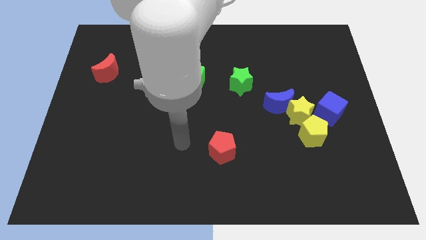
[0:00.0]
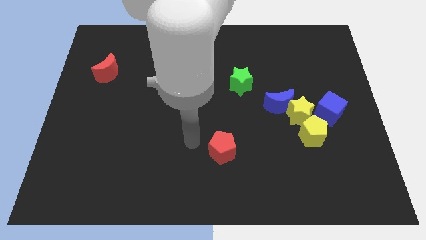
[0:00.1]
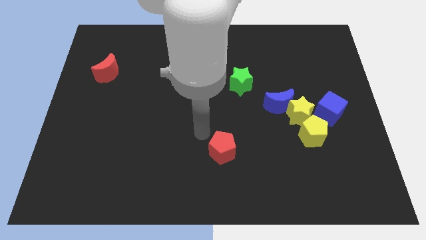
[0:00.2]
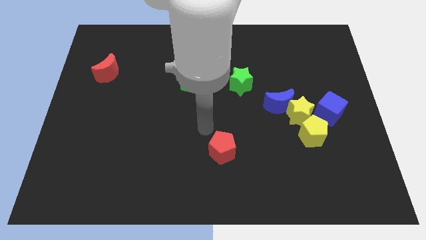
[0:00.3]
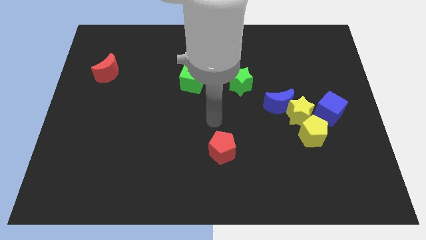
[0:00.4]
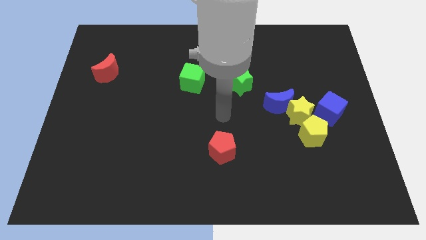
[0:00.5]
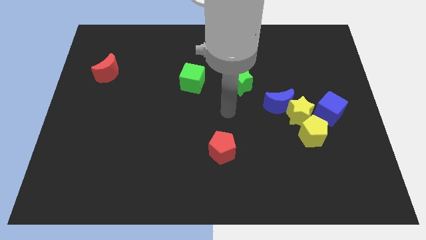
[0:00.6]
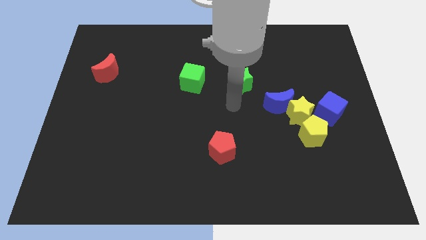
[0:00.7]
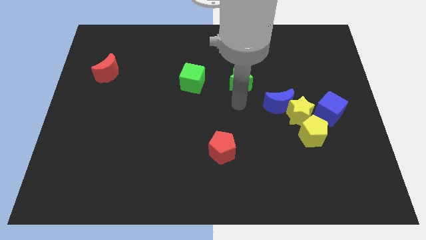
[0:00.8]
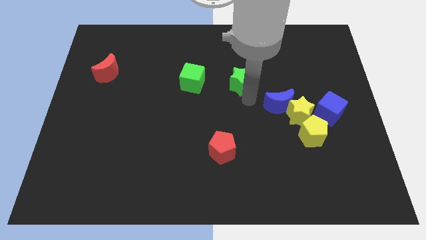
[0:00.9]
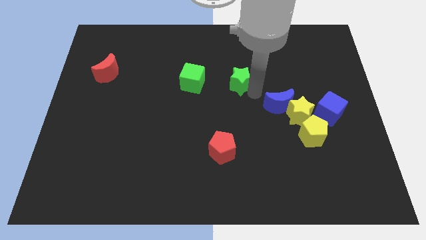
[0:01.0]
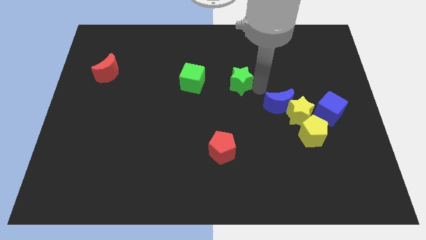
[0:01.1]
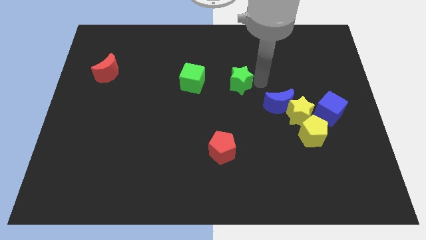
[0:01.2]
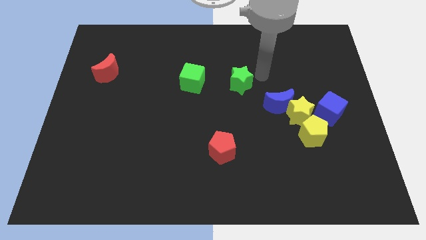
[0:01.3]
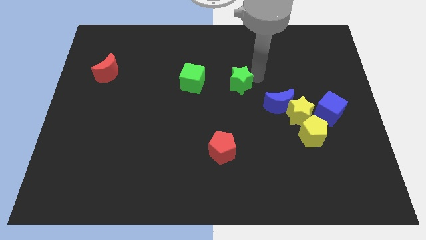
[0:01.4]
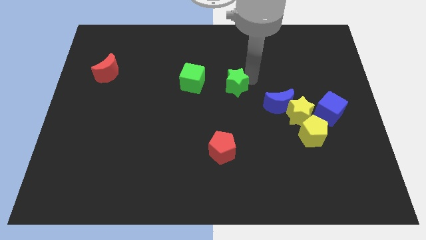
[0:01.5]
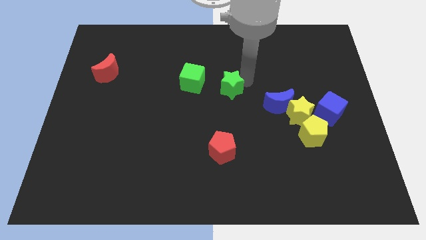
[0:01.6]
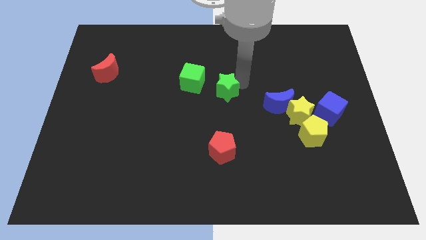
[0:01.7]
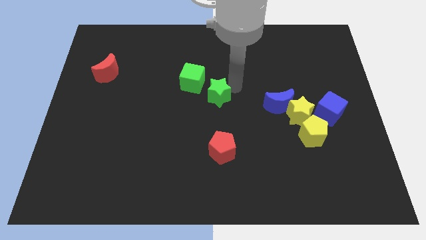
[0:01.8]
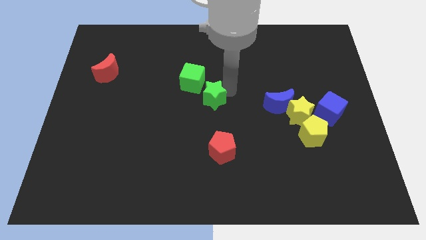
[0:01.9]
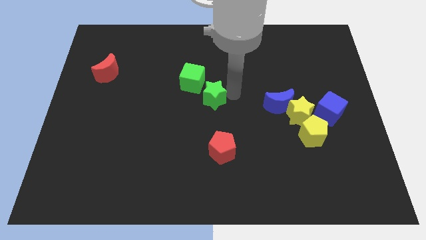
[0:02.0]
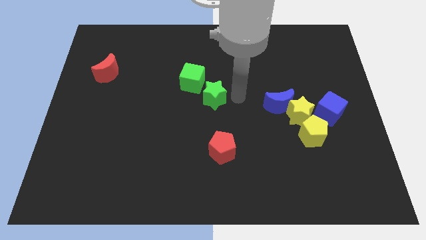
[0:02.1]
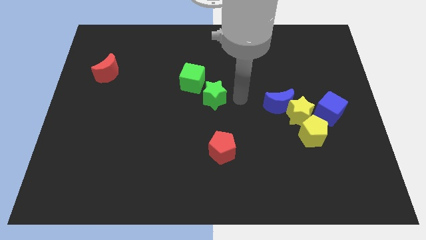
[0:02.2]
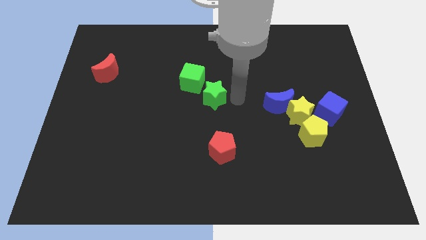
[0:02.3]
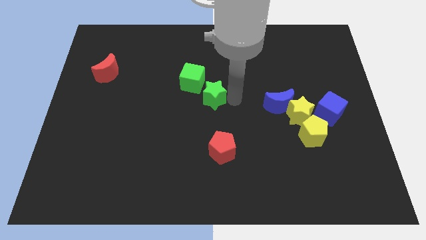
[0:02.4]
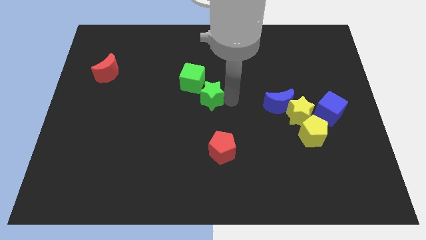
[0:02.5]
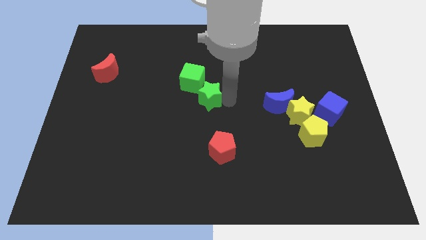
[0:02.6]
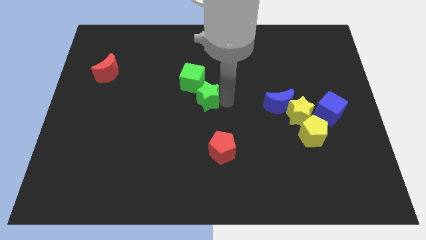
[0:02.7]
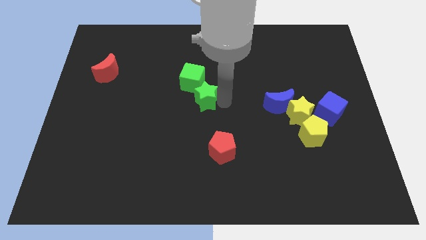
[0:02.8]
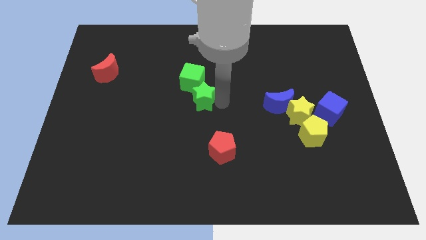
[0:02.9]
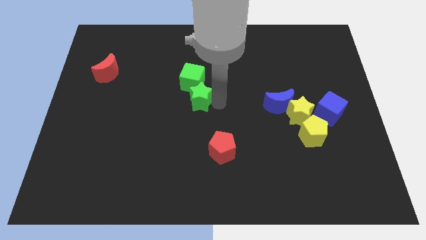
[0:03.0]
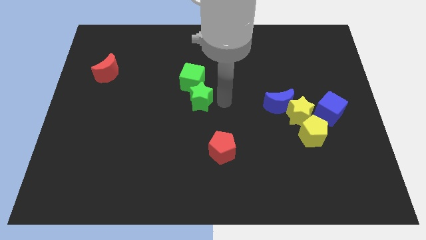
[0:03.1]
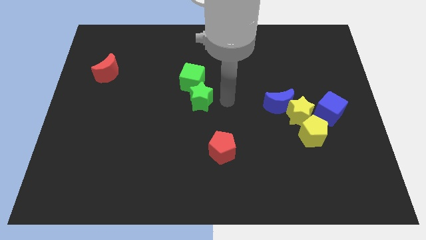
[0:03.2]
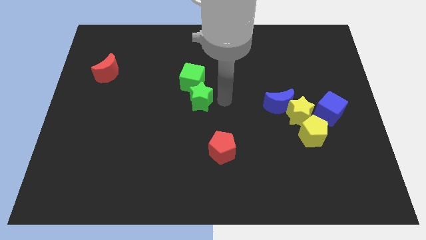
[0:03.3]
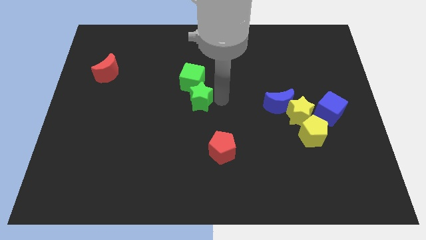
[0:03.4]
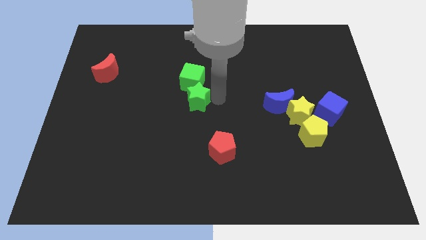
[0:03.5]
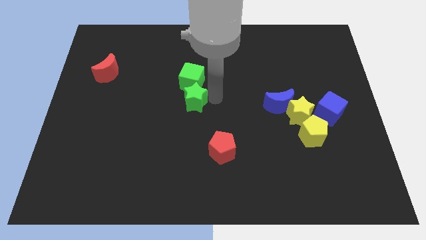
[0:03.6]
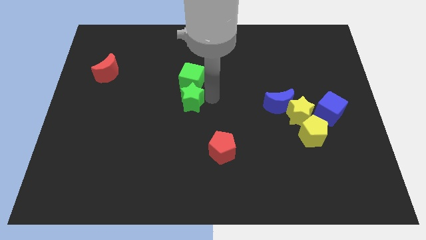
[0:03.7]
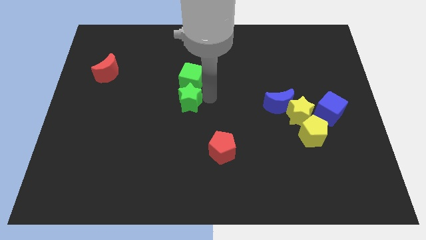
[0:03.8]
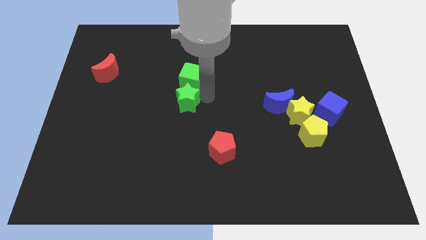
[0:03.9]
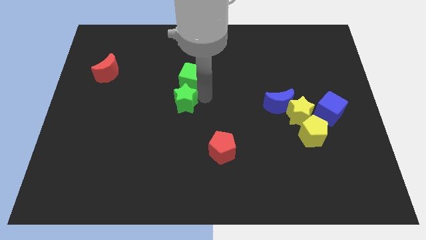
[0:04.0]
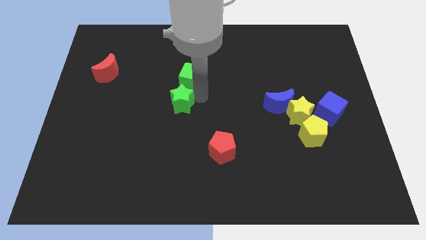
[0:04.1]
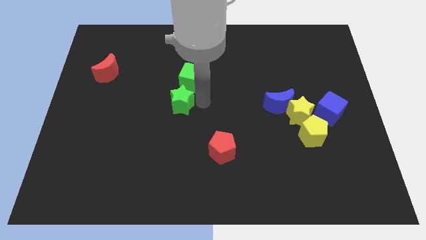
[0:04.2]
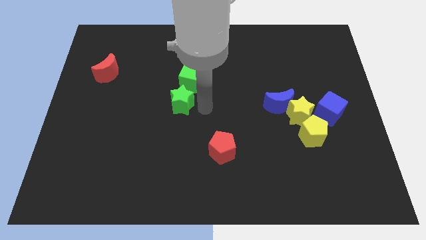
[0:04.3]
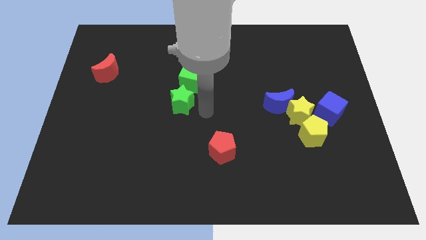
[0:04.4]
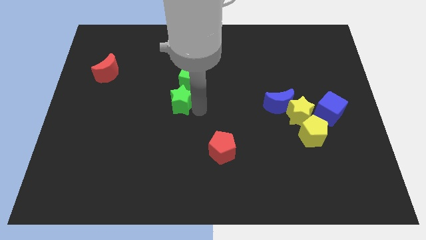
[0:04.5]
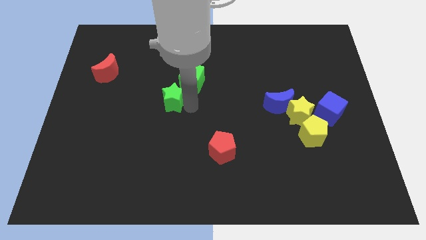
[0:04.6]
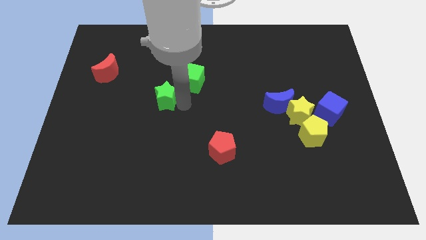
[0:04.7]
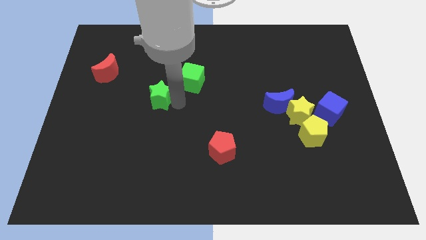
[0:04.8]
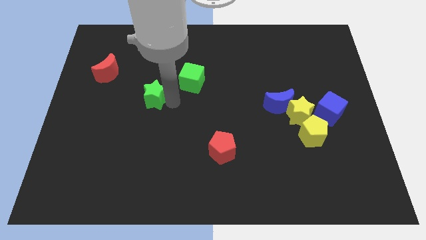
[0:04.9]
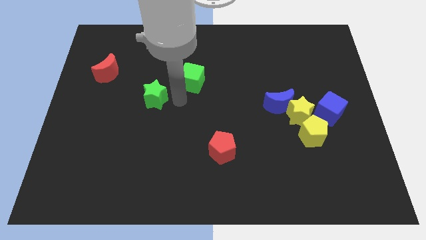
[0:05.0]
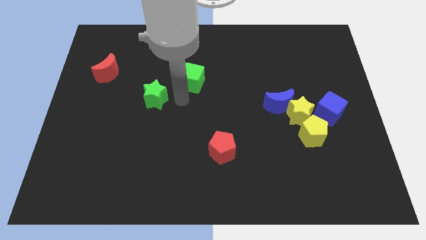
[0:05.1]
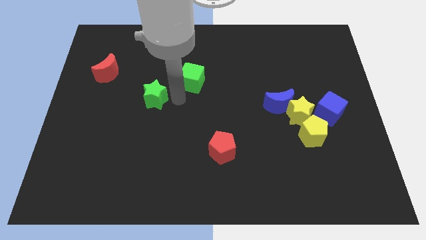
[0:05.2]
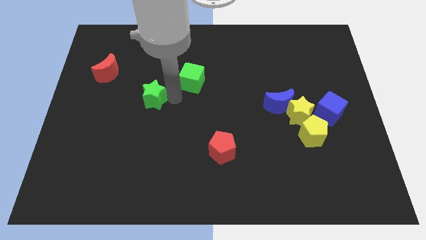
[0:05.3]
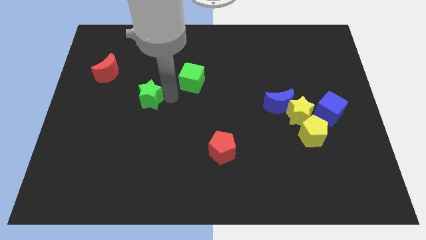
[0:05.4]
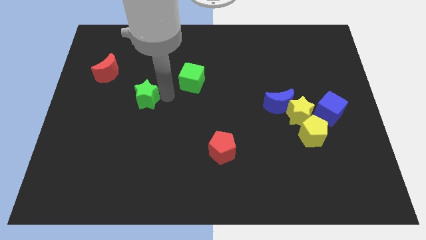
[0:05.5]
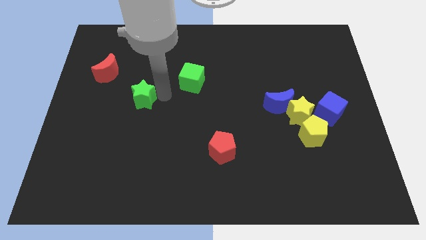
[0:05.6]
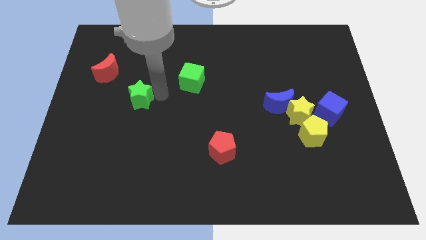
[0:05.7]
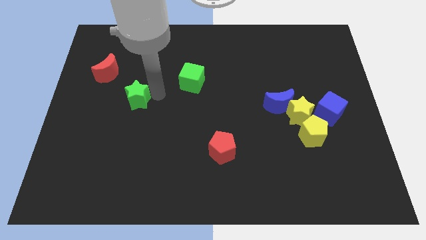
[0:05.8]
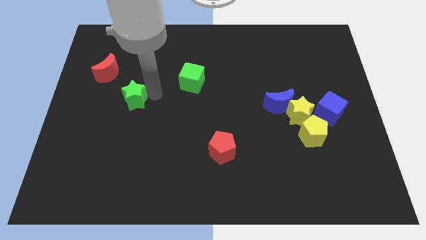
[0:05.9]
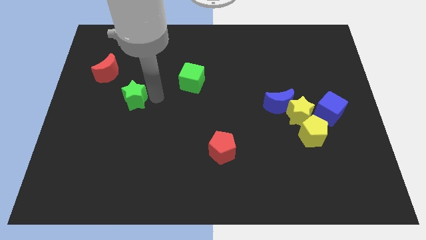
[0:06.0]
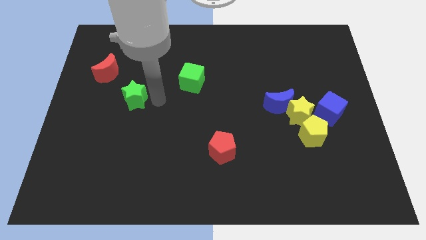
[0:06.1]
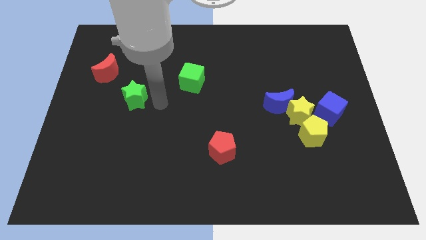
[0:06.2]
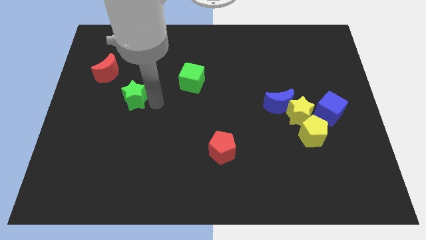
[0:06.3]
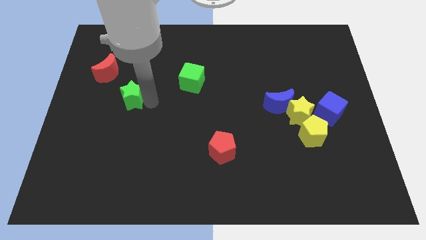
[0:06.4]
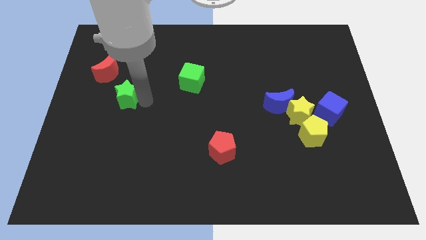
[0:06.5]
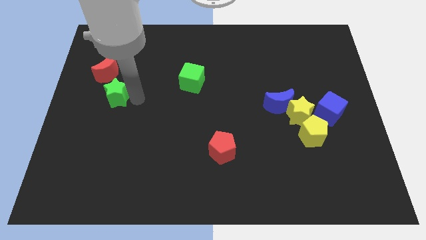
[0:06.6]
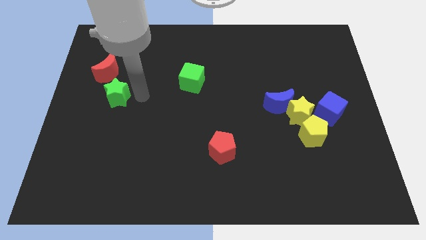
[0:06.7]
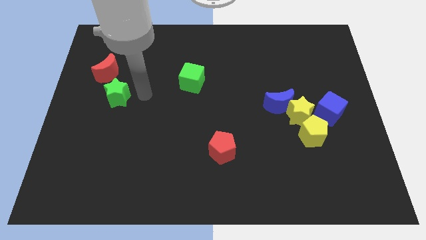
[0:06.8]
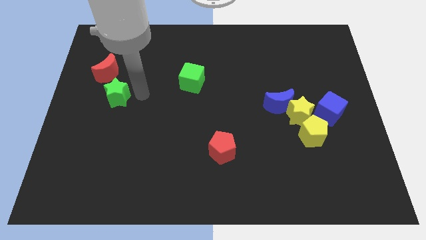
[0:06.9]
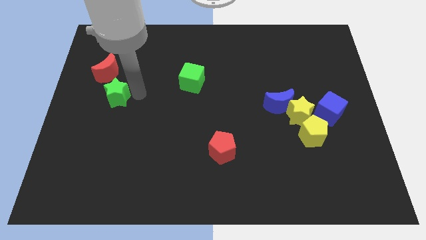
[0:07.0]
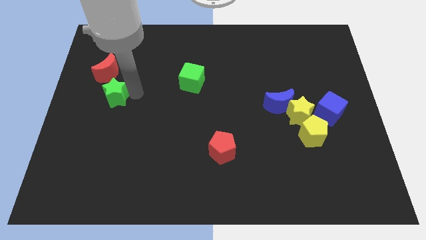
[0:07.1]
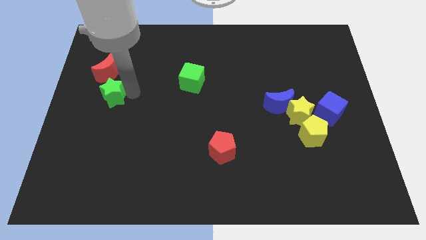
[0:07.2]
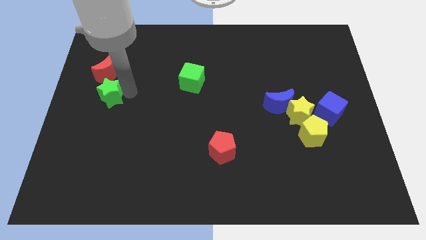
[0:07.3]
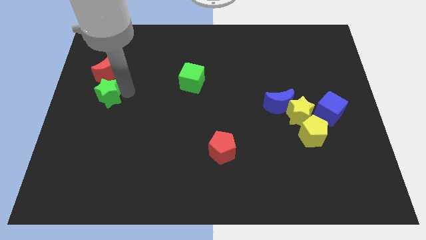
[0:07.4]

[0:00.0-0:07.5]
slide the green star to the left side of the board
